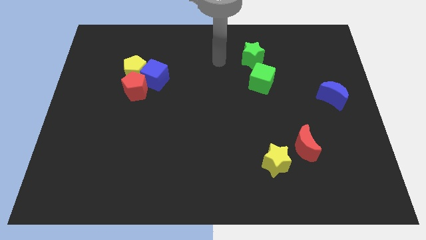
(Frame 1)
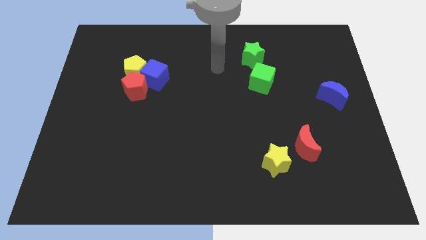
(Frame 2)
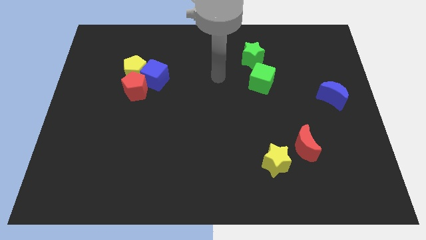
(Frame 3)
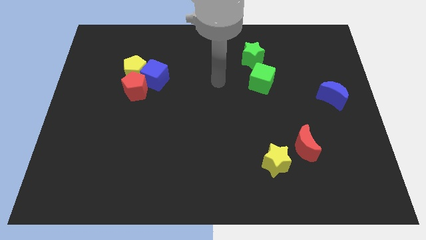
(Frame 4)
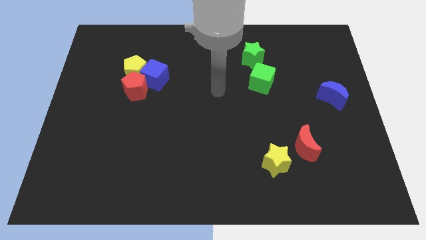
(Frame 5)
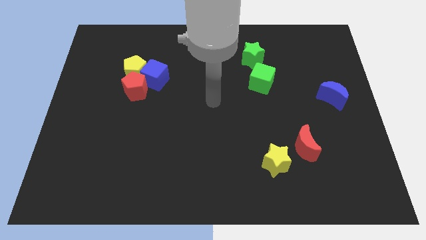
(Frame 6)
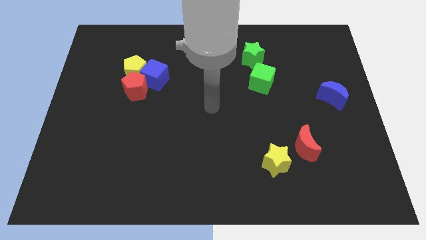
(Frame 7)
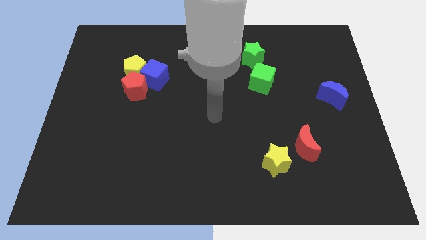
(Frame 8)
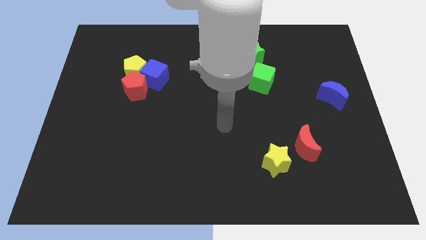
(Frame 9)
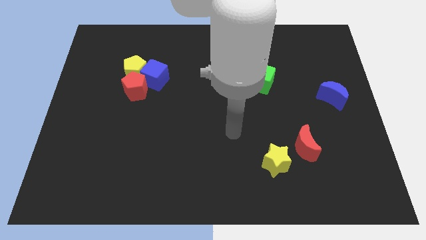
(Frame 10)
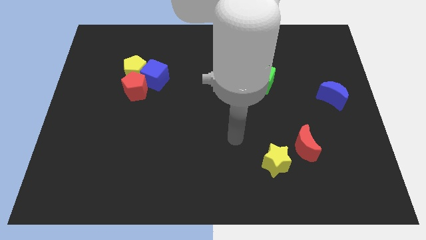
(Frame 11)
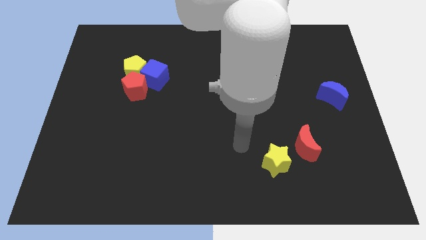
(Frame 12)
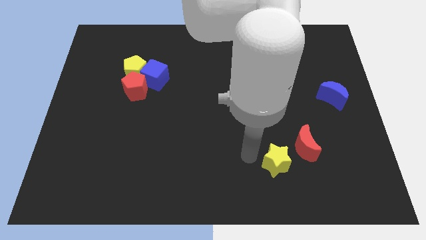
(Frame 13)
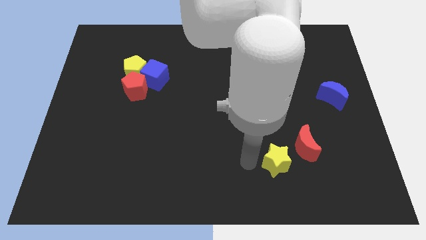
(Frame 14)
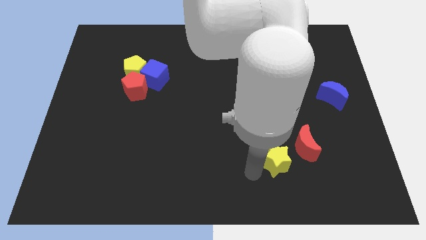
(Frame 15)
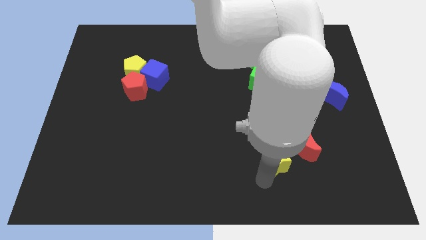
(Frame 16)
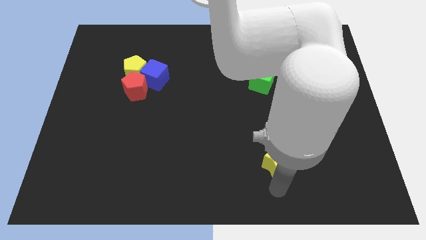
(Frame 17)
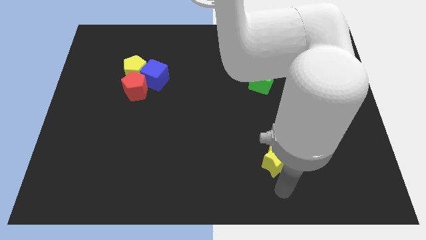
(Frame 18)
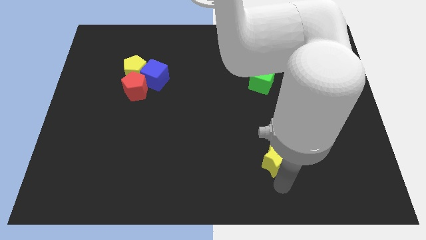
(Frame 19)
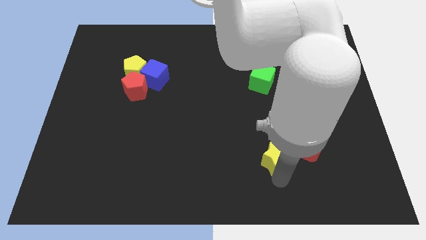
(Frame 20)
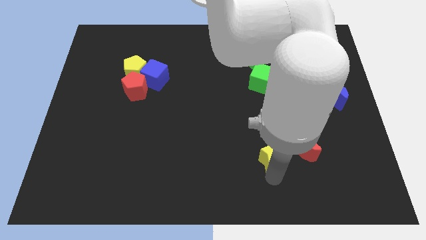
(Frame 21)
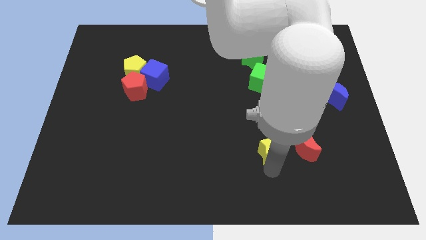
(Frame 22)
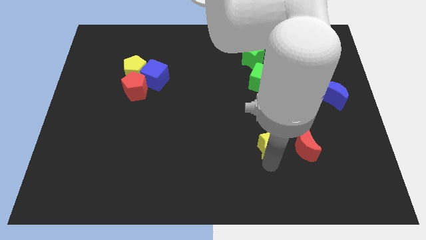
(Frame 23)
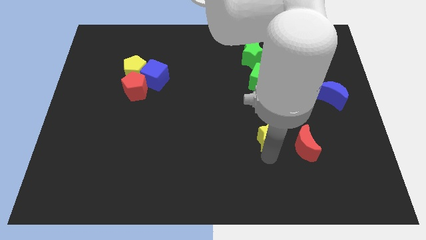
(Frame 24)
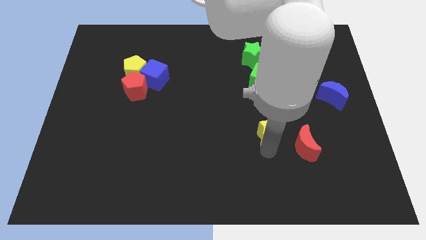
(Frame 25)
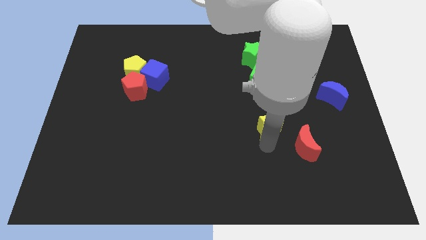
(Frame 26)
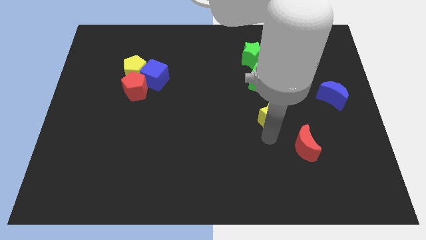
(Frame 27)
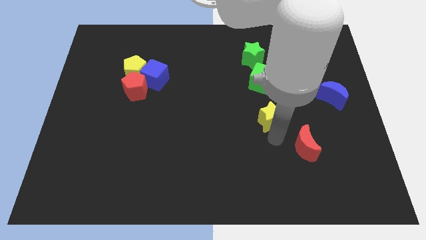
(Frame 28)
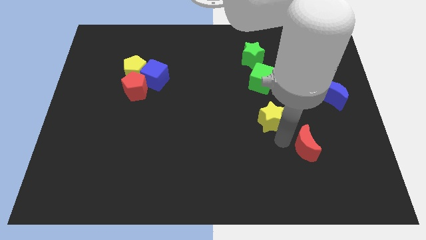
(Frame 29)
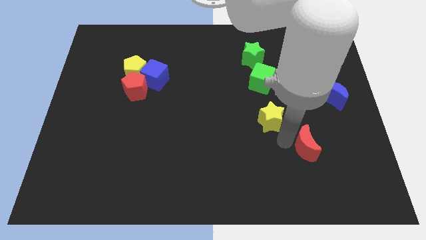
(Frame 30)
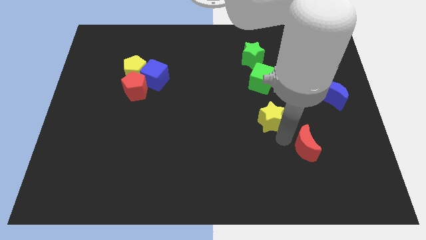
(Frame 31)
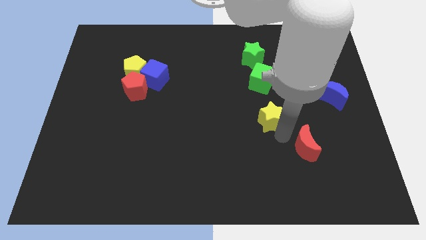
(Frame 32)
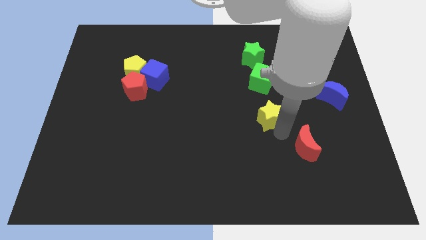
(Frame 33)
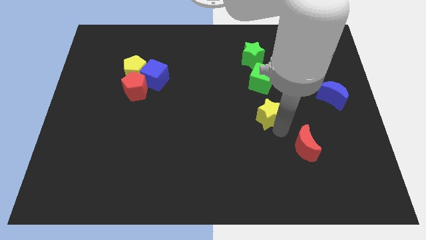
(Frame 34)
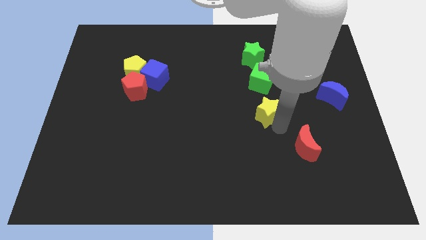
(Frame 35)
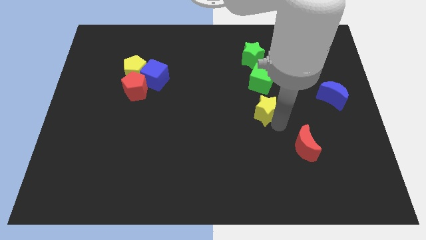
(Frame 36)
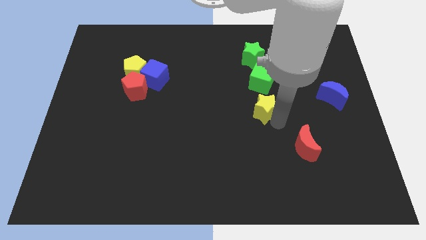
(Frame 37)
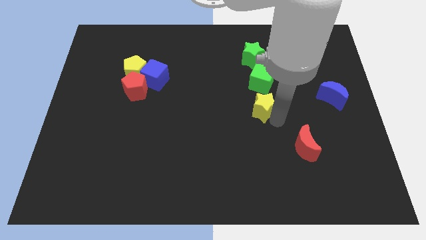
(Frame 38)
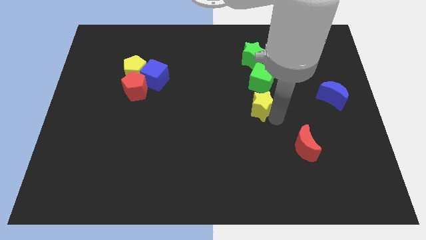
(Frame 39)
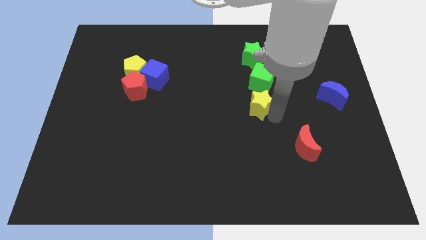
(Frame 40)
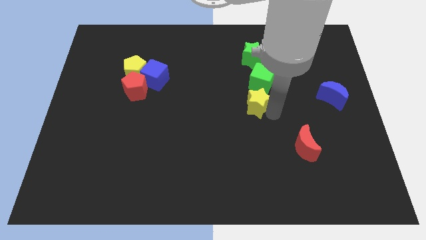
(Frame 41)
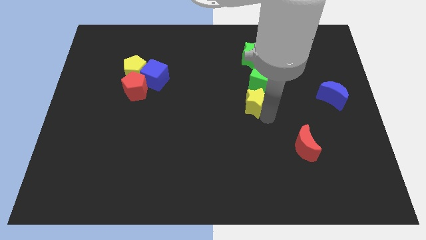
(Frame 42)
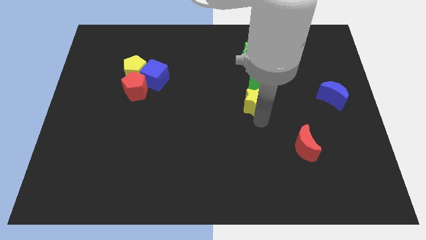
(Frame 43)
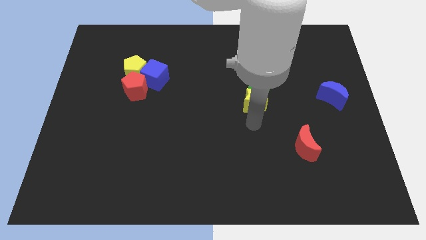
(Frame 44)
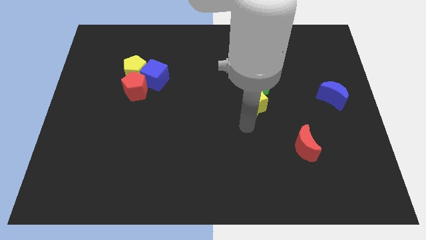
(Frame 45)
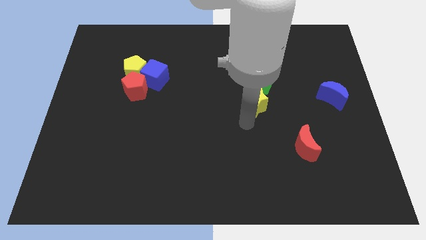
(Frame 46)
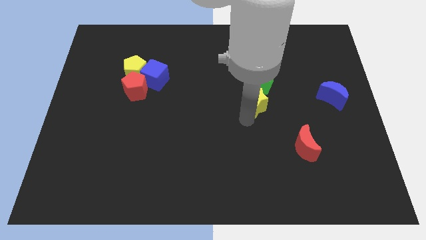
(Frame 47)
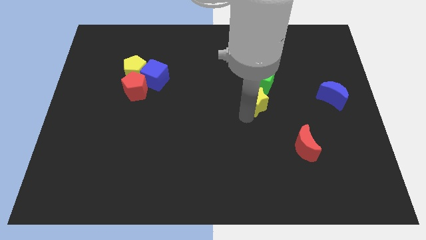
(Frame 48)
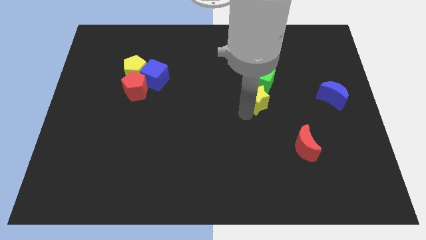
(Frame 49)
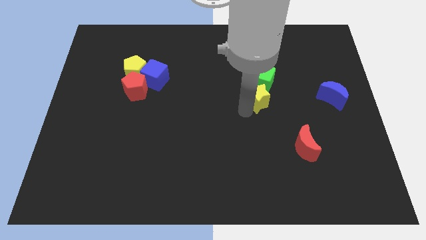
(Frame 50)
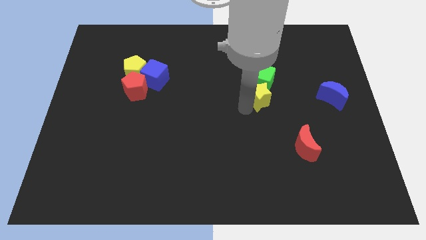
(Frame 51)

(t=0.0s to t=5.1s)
push the yellow star close to the green cube

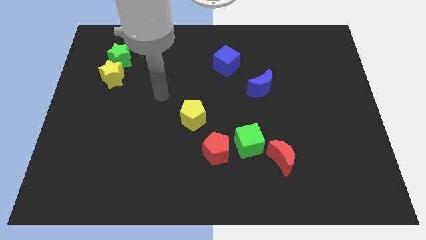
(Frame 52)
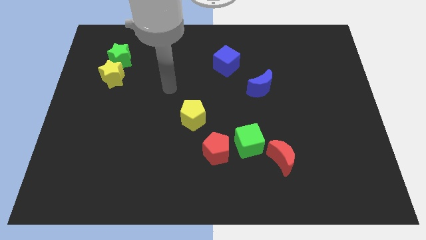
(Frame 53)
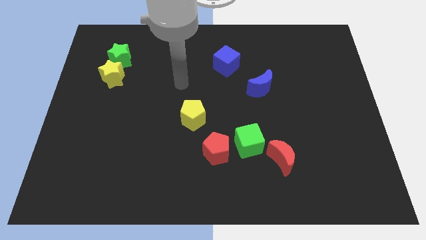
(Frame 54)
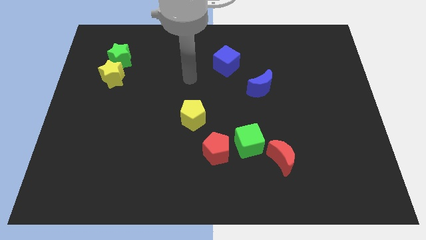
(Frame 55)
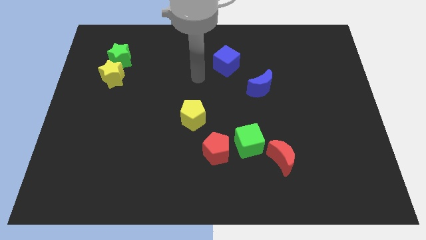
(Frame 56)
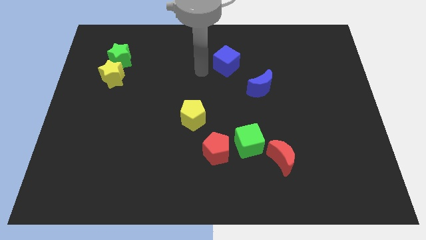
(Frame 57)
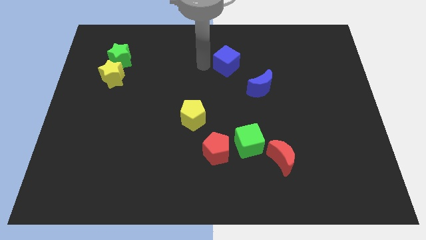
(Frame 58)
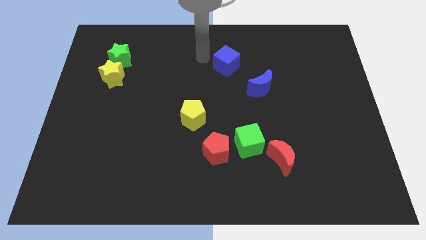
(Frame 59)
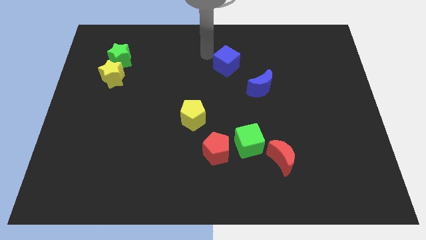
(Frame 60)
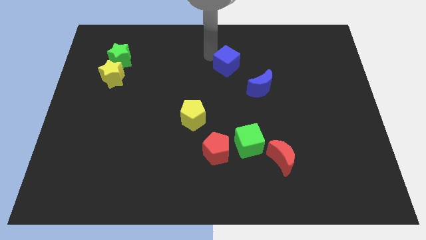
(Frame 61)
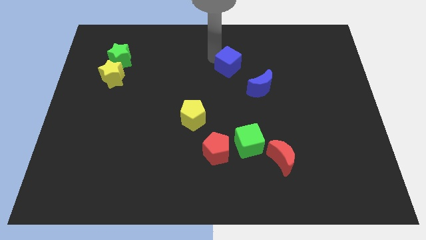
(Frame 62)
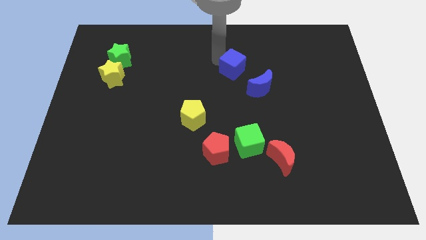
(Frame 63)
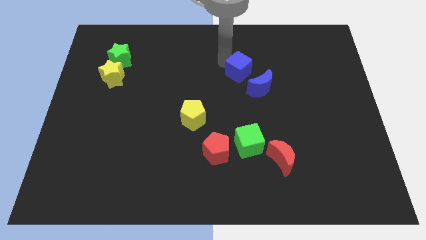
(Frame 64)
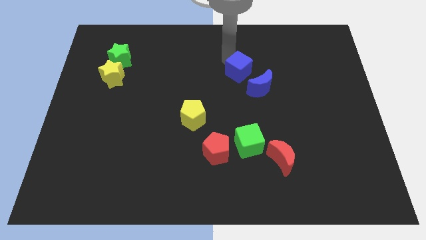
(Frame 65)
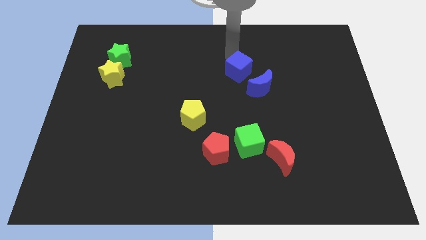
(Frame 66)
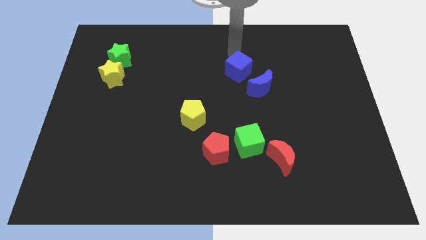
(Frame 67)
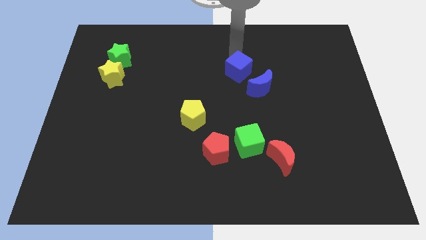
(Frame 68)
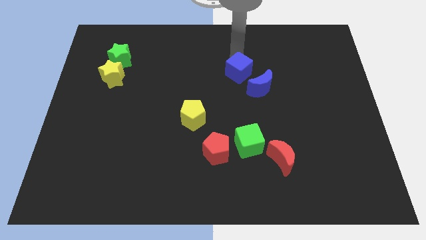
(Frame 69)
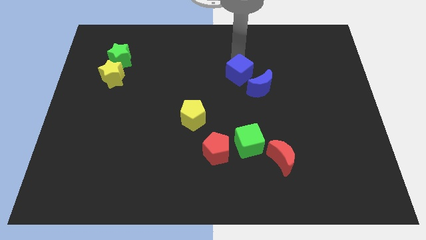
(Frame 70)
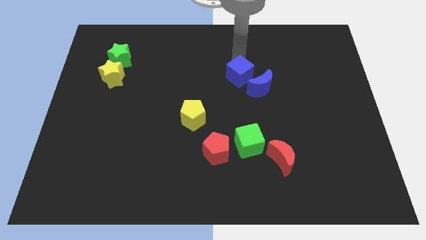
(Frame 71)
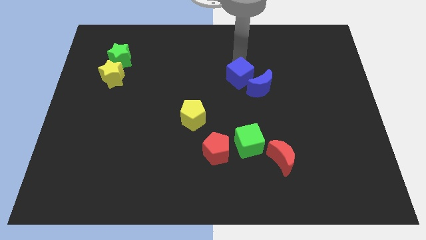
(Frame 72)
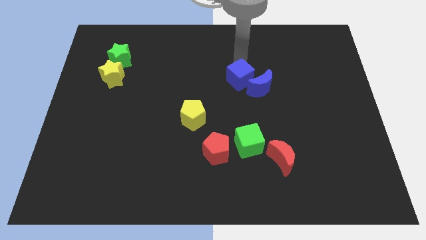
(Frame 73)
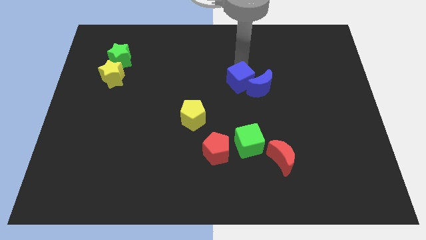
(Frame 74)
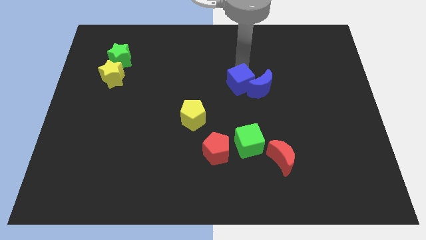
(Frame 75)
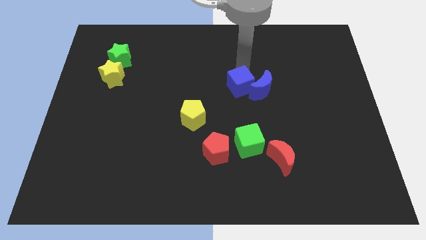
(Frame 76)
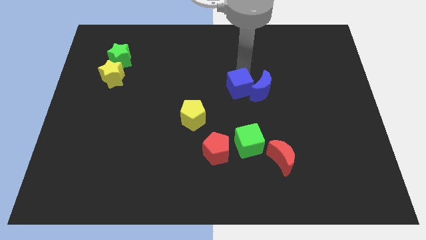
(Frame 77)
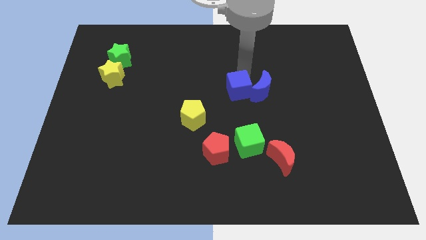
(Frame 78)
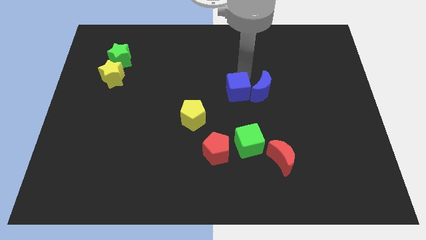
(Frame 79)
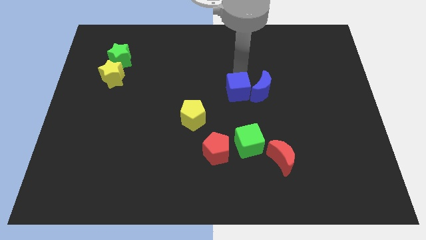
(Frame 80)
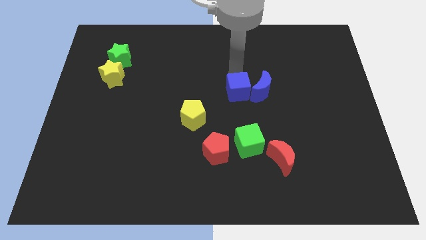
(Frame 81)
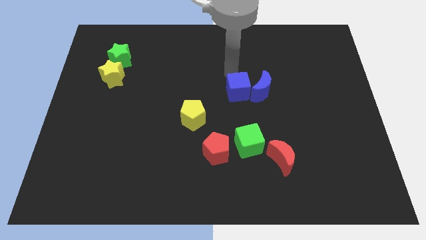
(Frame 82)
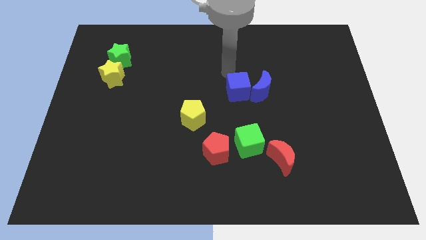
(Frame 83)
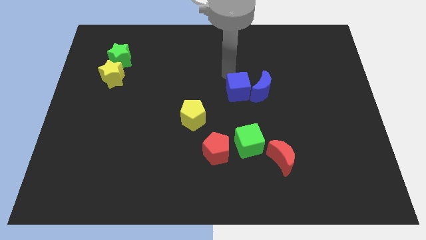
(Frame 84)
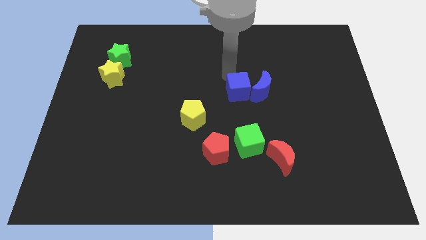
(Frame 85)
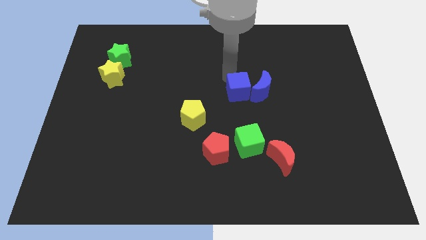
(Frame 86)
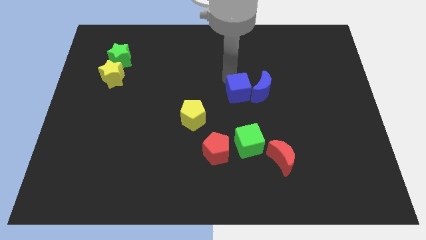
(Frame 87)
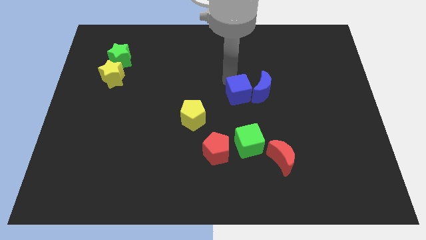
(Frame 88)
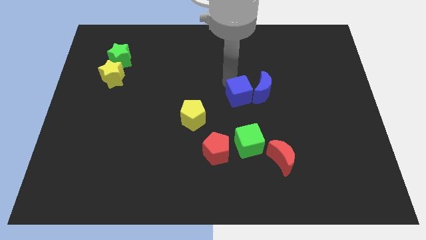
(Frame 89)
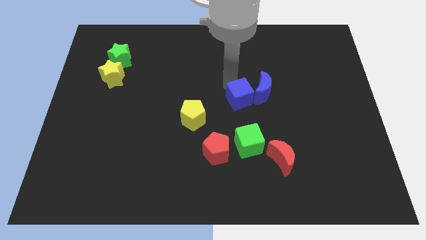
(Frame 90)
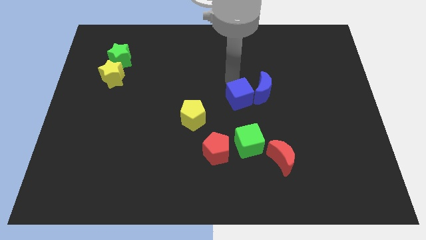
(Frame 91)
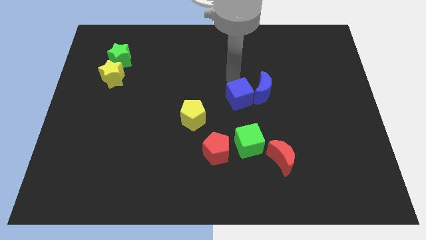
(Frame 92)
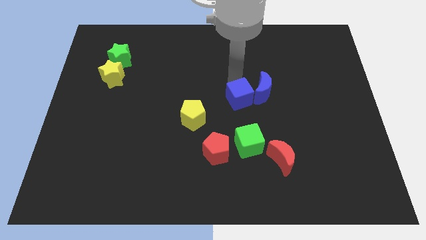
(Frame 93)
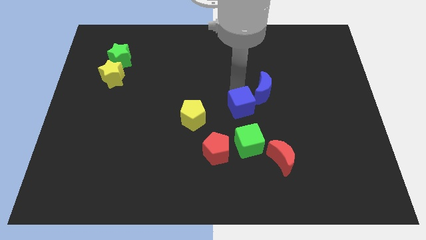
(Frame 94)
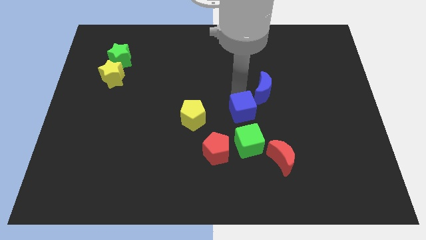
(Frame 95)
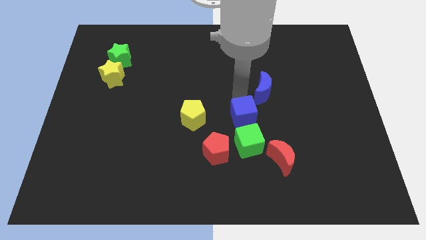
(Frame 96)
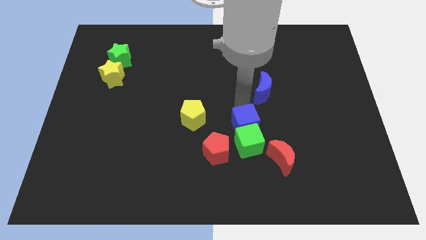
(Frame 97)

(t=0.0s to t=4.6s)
put the blue cube to the green cube
